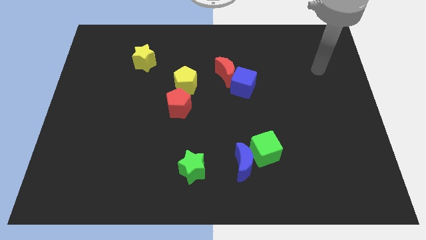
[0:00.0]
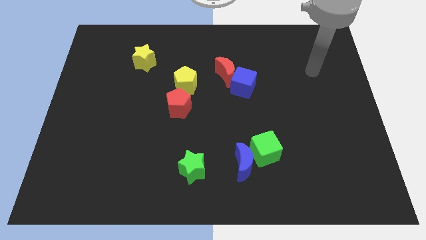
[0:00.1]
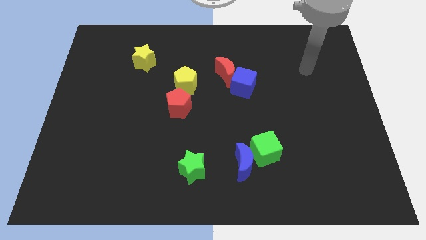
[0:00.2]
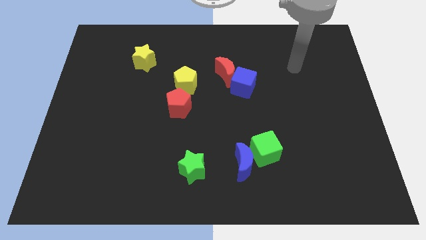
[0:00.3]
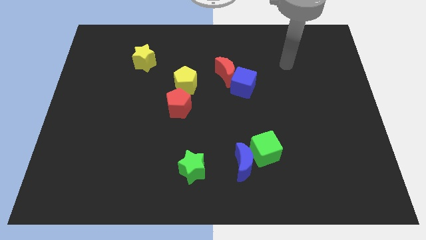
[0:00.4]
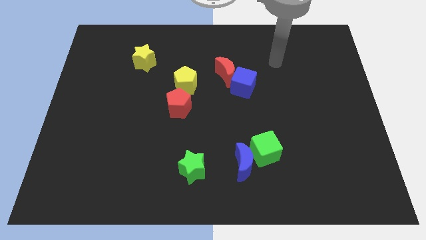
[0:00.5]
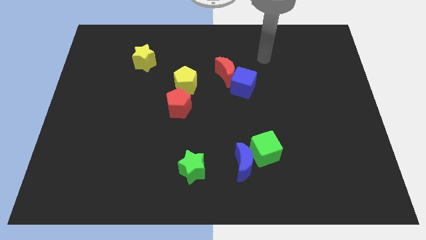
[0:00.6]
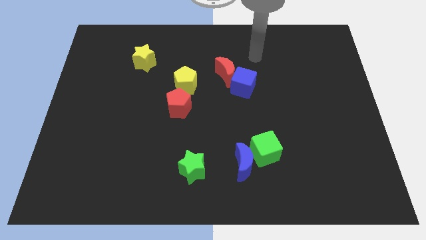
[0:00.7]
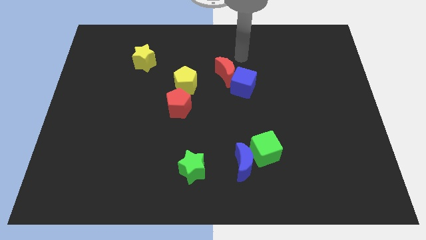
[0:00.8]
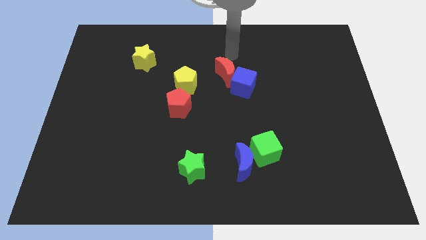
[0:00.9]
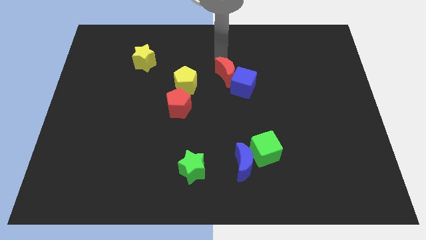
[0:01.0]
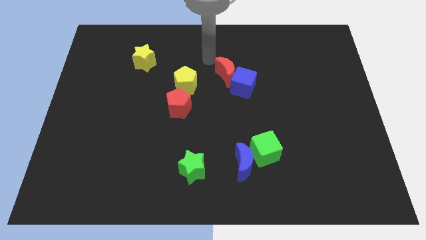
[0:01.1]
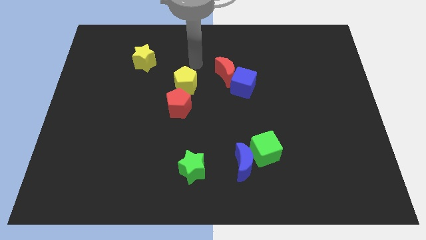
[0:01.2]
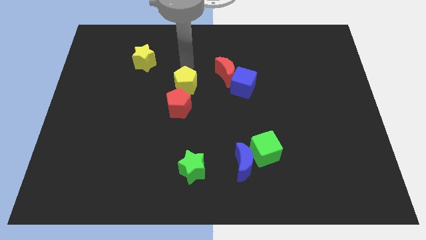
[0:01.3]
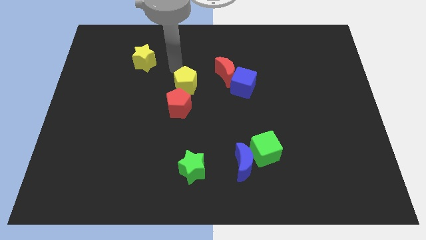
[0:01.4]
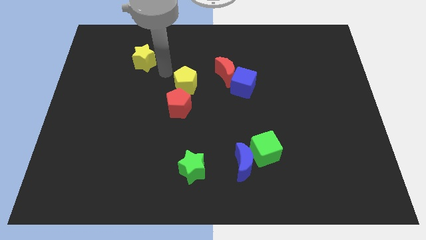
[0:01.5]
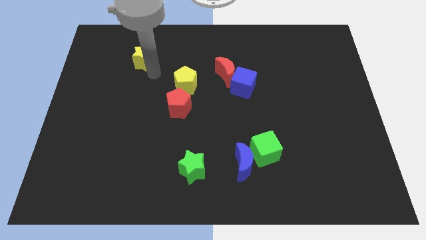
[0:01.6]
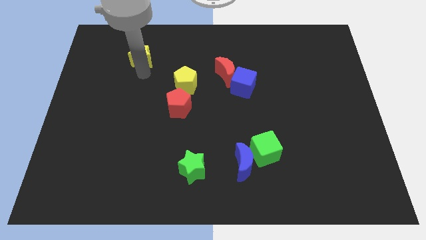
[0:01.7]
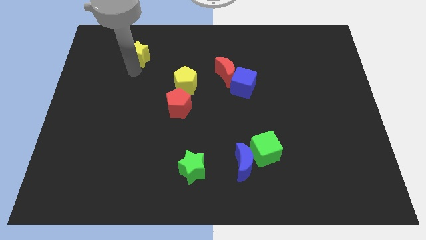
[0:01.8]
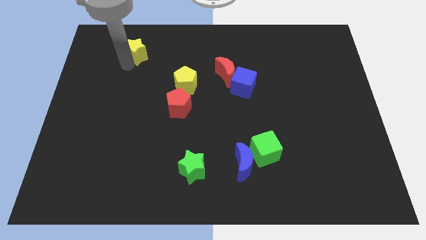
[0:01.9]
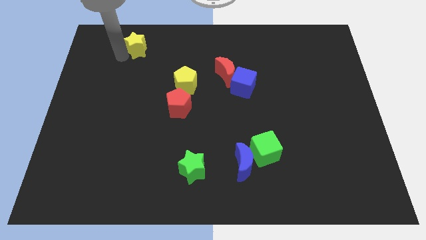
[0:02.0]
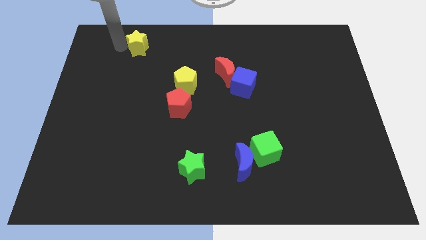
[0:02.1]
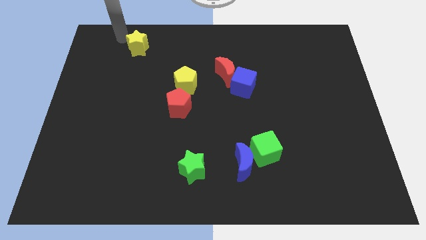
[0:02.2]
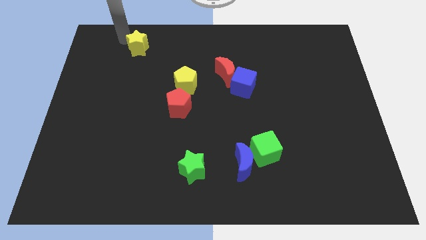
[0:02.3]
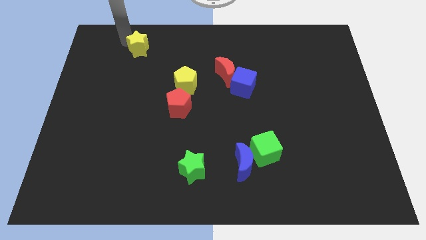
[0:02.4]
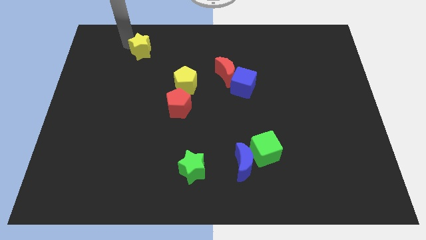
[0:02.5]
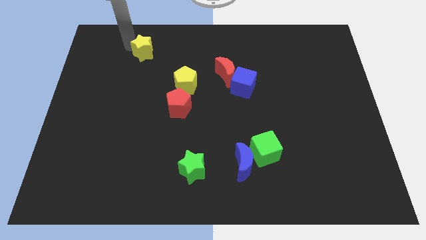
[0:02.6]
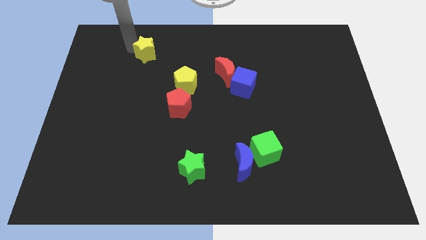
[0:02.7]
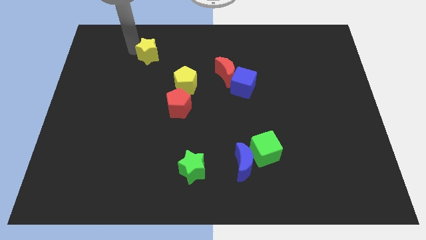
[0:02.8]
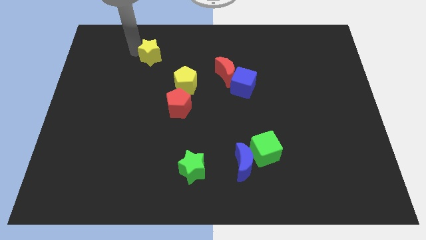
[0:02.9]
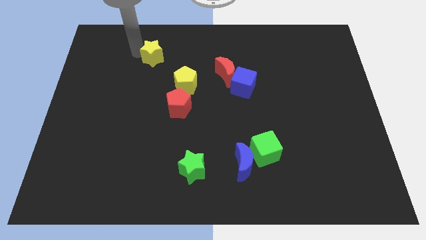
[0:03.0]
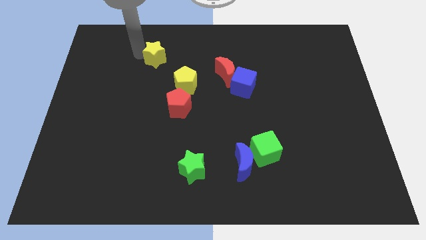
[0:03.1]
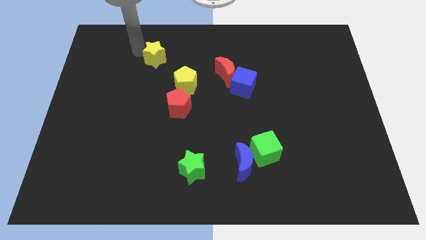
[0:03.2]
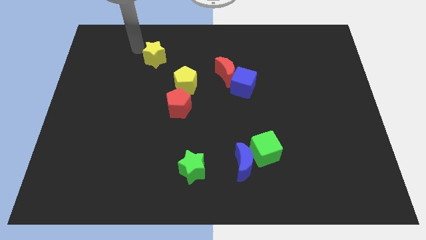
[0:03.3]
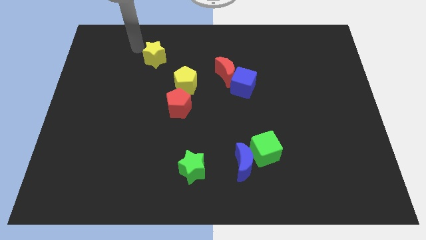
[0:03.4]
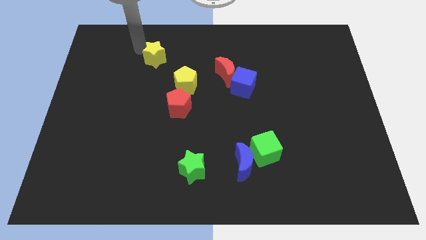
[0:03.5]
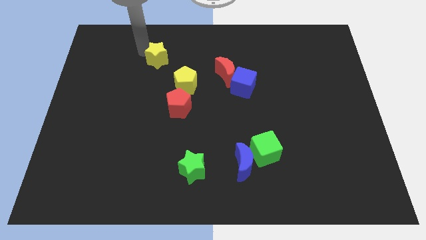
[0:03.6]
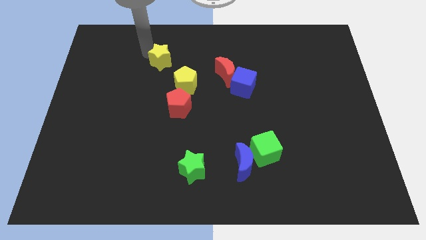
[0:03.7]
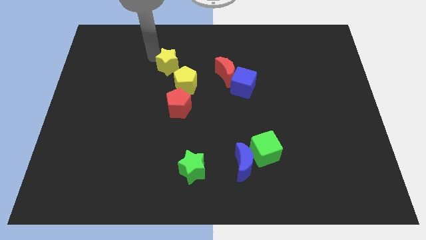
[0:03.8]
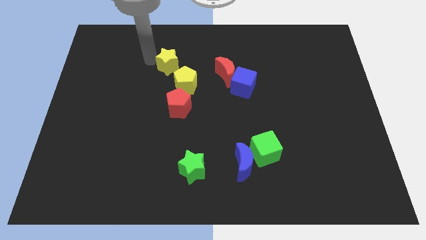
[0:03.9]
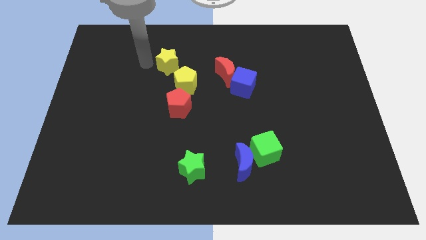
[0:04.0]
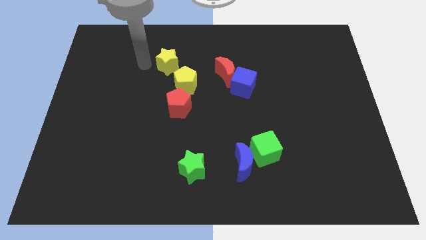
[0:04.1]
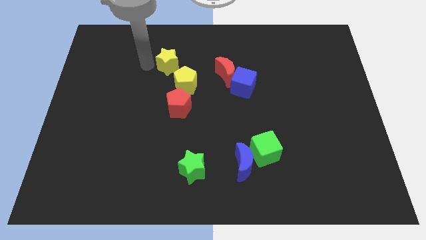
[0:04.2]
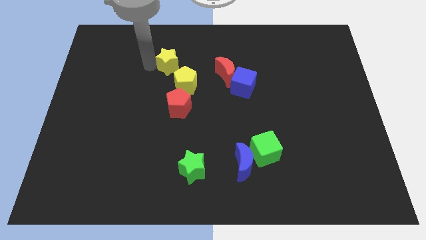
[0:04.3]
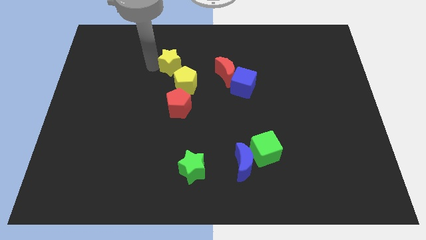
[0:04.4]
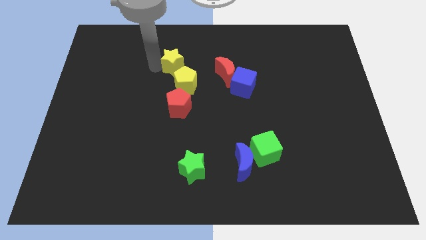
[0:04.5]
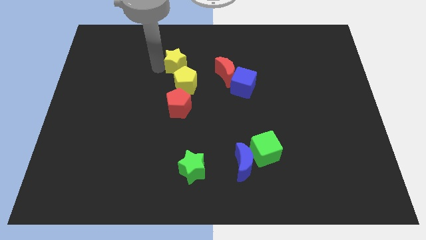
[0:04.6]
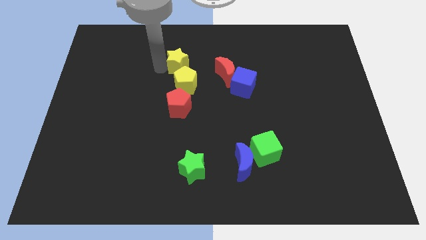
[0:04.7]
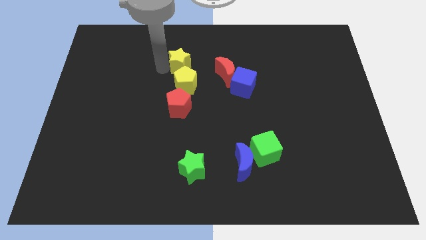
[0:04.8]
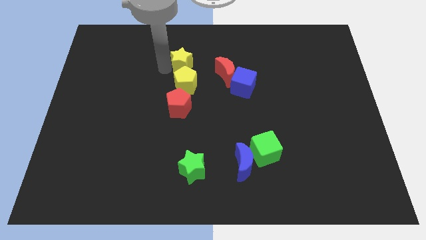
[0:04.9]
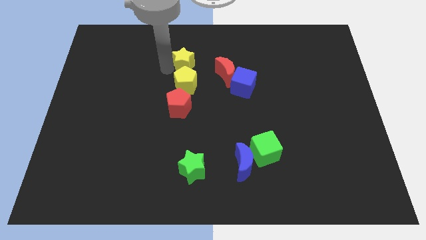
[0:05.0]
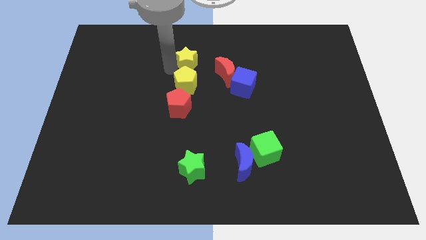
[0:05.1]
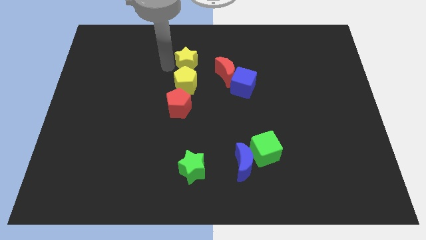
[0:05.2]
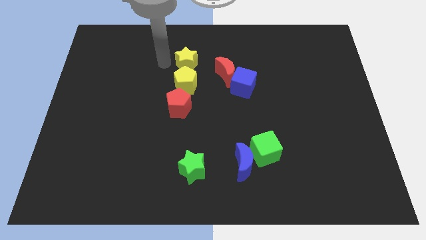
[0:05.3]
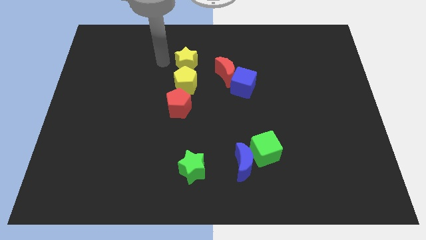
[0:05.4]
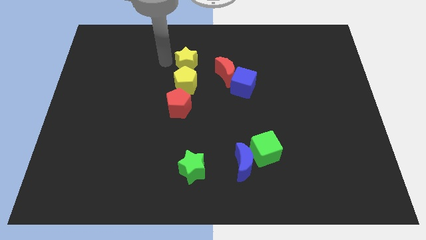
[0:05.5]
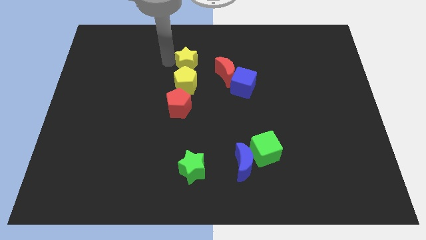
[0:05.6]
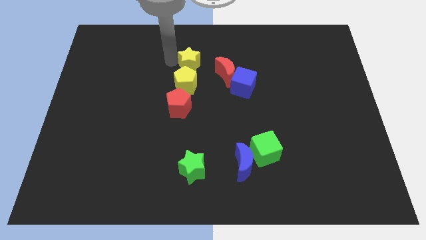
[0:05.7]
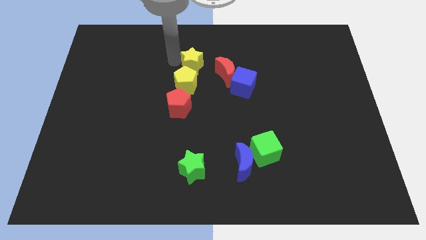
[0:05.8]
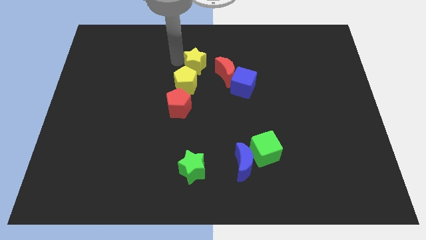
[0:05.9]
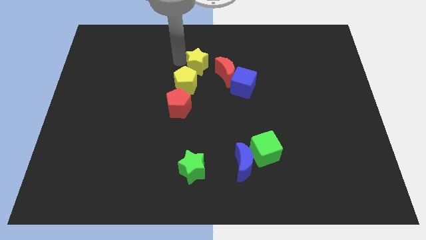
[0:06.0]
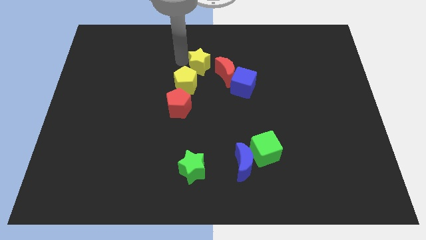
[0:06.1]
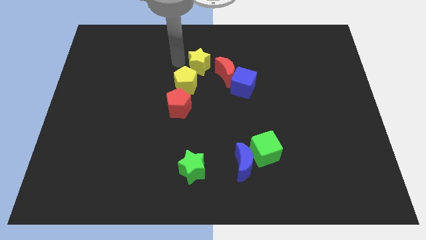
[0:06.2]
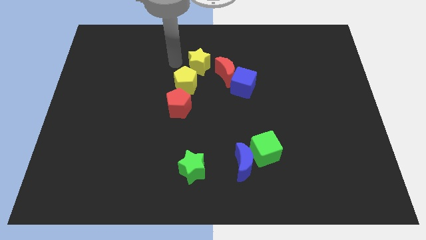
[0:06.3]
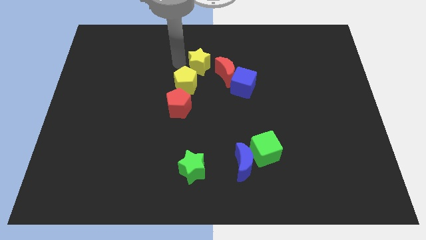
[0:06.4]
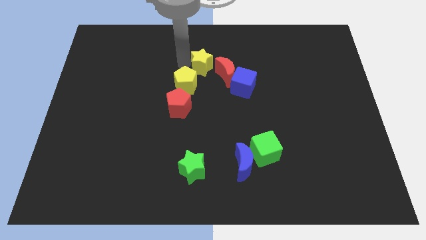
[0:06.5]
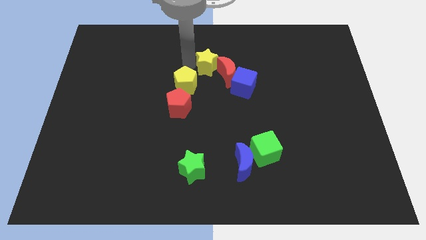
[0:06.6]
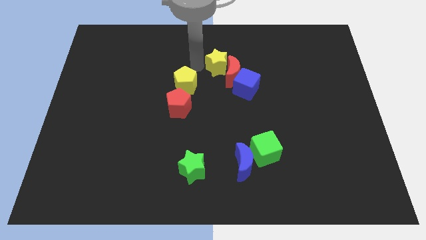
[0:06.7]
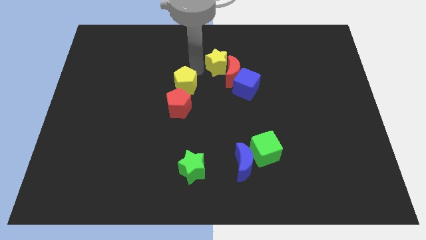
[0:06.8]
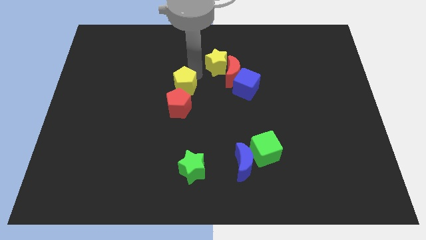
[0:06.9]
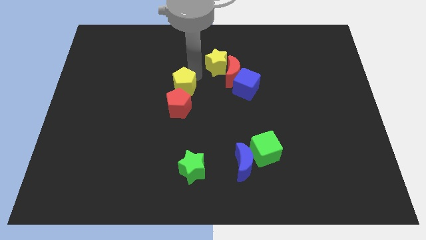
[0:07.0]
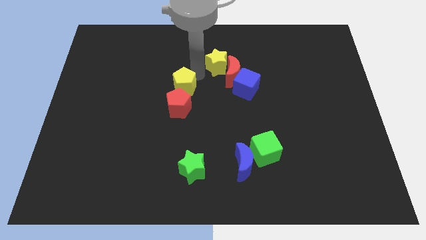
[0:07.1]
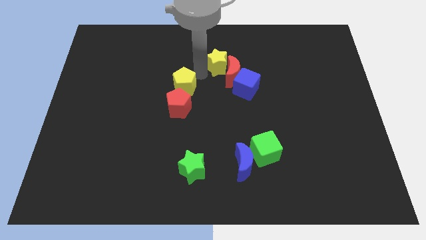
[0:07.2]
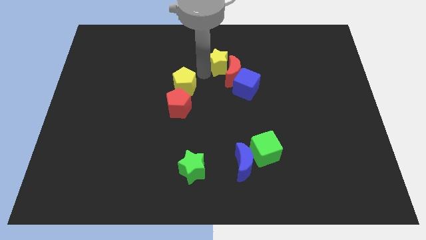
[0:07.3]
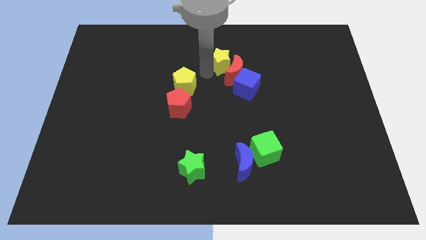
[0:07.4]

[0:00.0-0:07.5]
push the yellow star to the right

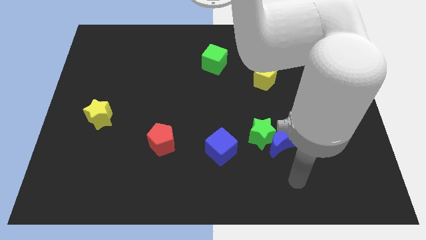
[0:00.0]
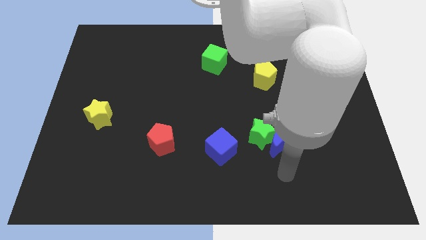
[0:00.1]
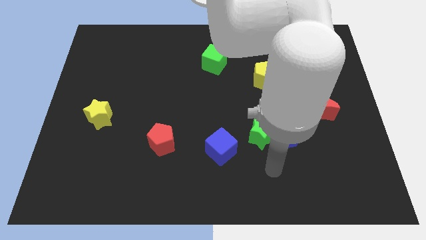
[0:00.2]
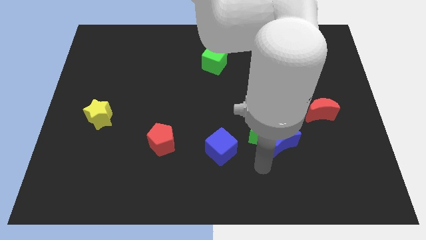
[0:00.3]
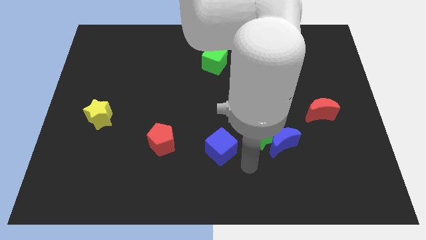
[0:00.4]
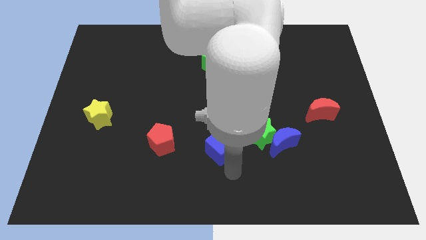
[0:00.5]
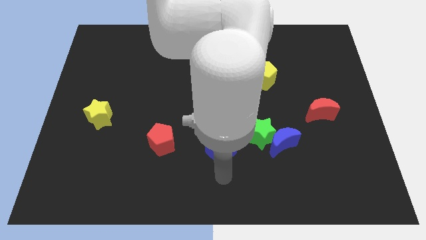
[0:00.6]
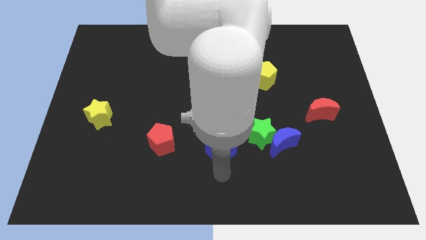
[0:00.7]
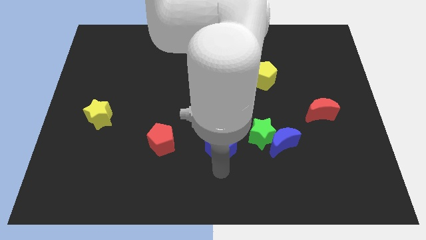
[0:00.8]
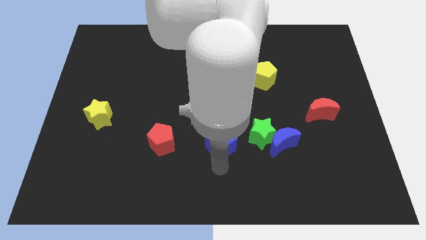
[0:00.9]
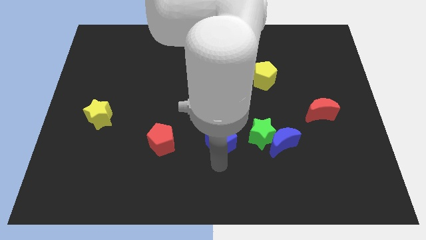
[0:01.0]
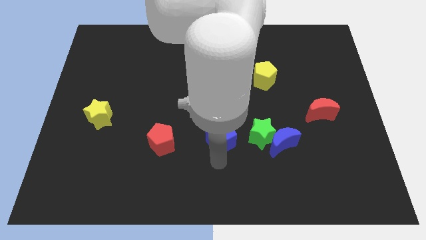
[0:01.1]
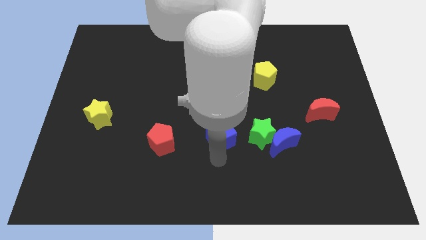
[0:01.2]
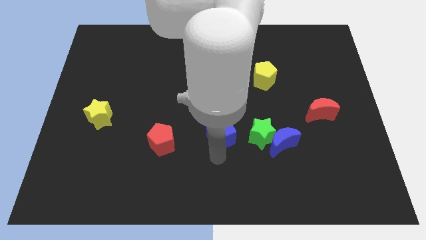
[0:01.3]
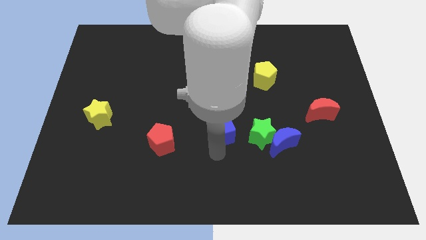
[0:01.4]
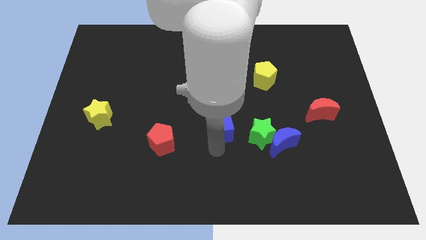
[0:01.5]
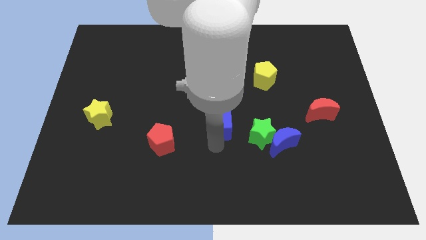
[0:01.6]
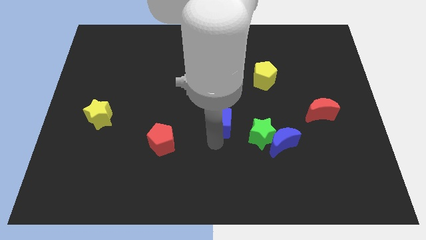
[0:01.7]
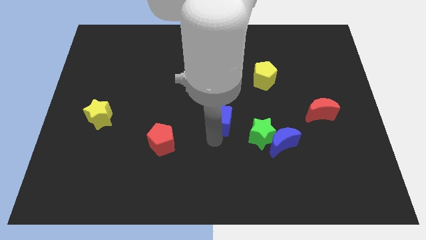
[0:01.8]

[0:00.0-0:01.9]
push the blue cube up a little
